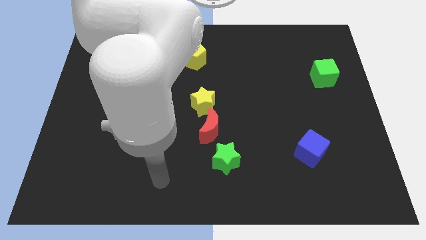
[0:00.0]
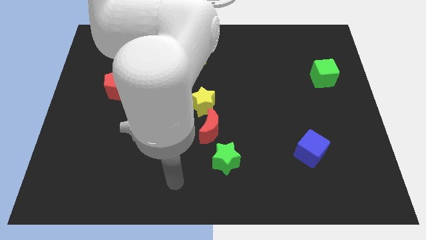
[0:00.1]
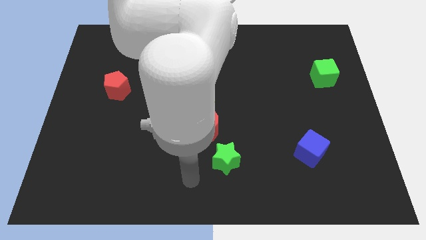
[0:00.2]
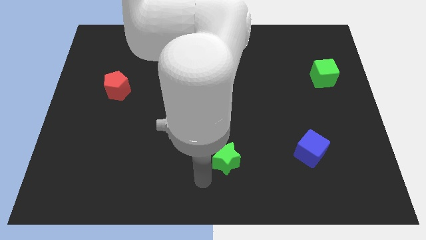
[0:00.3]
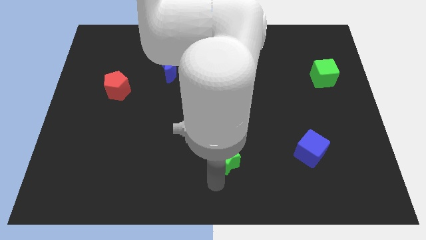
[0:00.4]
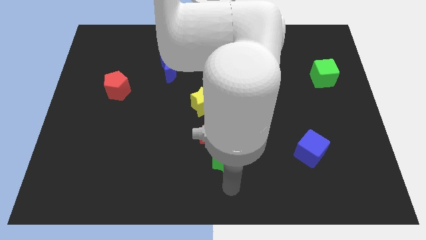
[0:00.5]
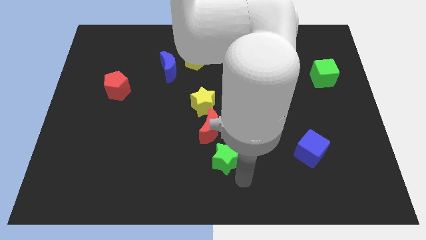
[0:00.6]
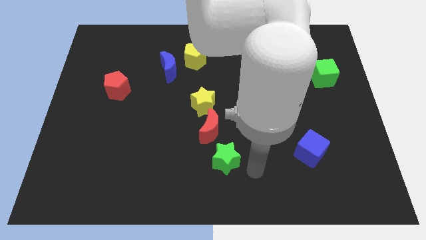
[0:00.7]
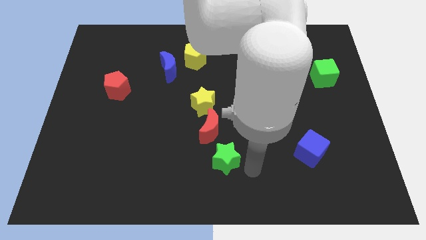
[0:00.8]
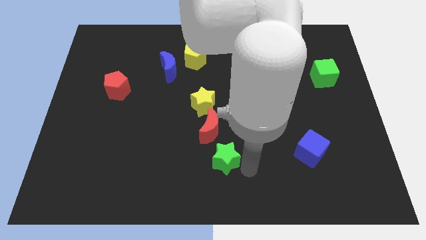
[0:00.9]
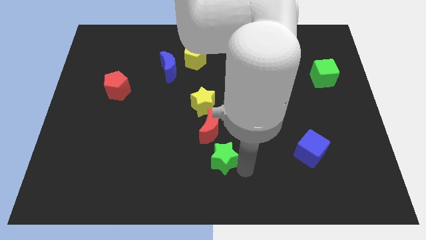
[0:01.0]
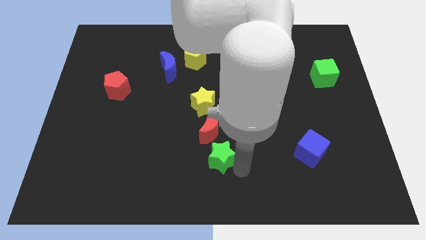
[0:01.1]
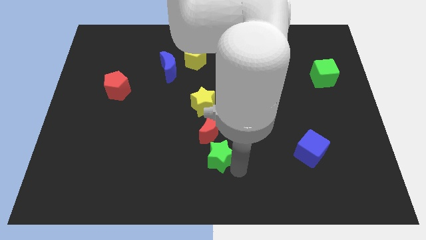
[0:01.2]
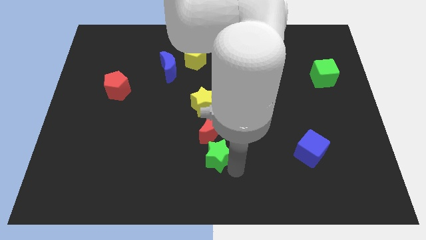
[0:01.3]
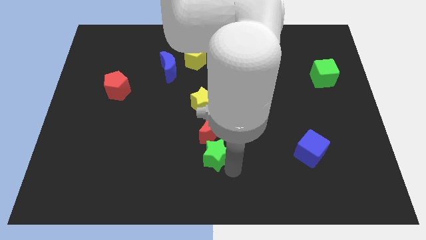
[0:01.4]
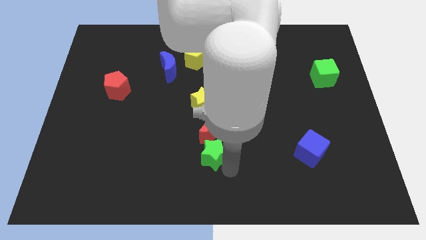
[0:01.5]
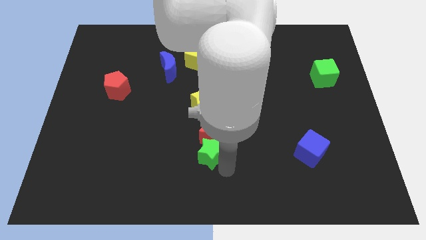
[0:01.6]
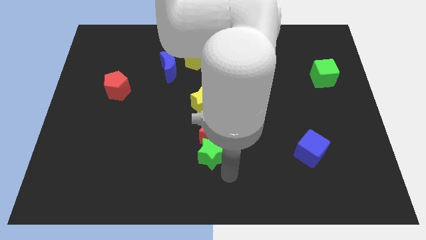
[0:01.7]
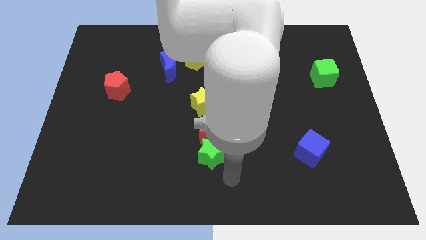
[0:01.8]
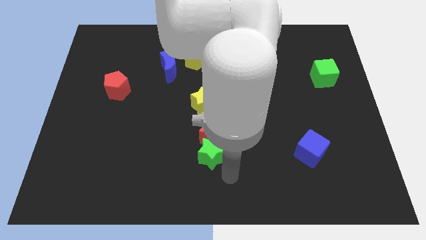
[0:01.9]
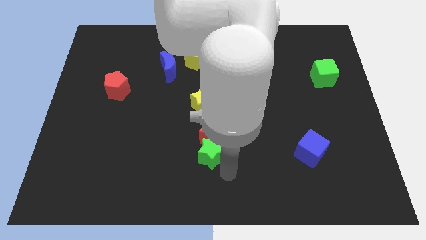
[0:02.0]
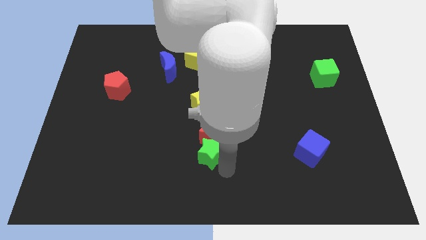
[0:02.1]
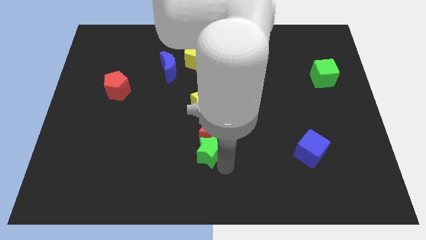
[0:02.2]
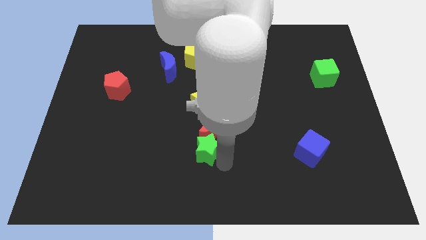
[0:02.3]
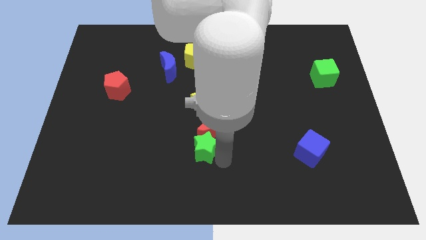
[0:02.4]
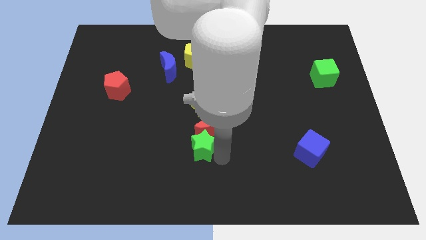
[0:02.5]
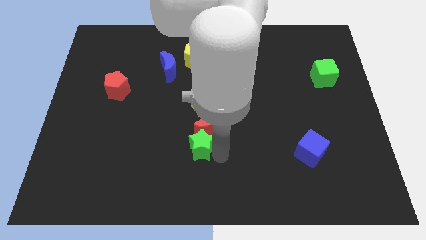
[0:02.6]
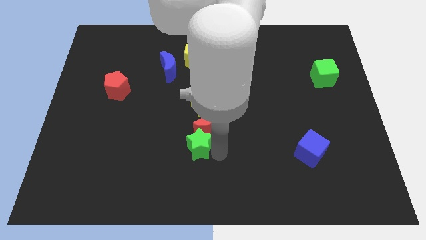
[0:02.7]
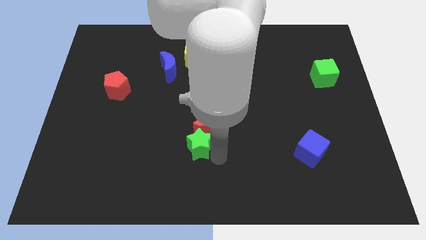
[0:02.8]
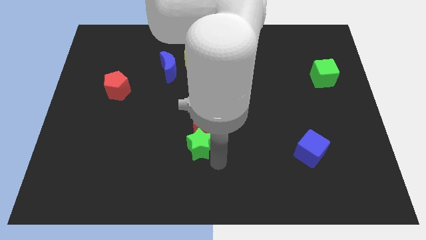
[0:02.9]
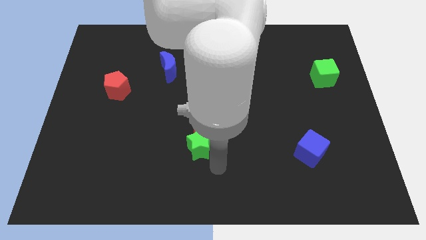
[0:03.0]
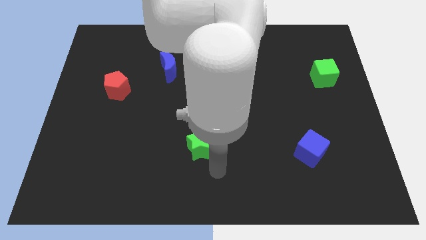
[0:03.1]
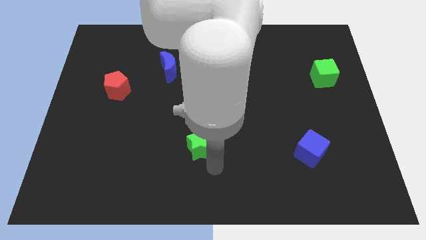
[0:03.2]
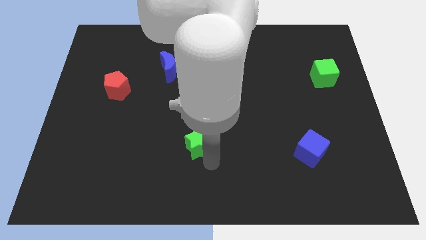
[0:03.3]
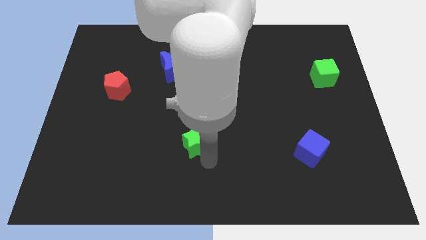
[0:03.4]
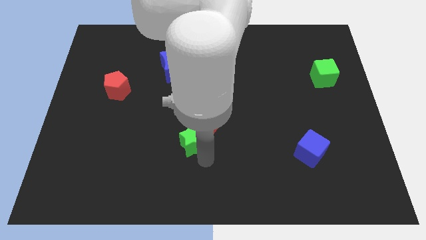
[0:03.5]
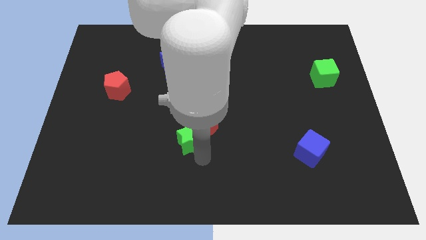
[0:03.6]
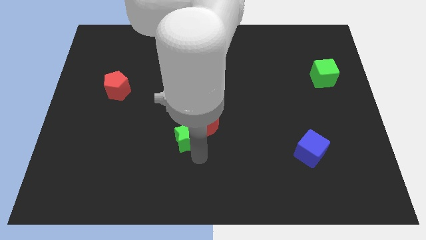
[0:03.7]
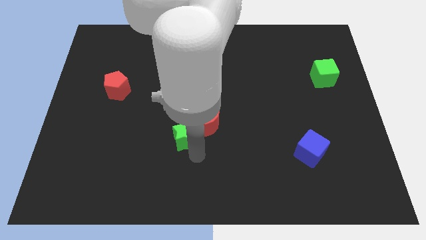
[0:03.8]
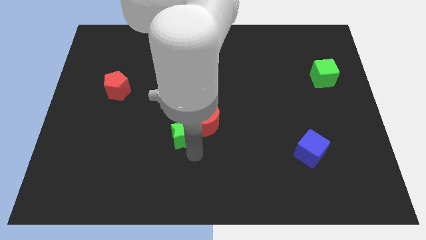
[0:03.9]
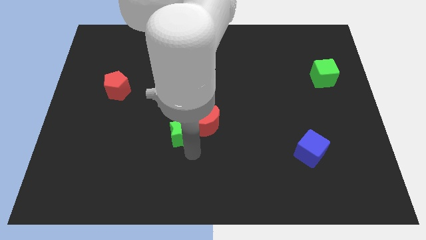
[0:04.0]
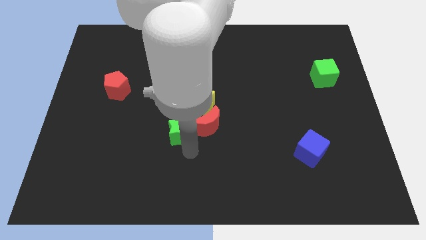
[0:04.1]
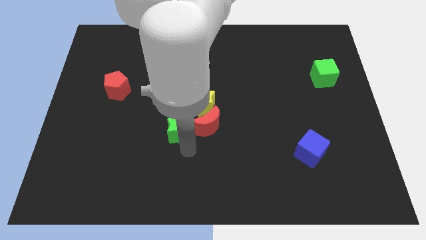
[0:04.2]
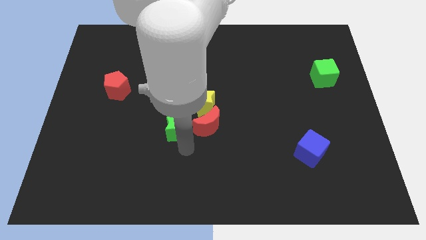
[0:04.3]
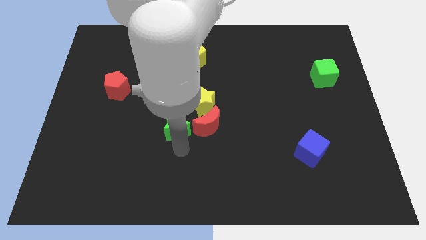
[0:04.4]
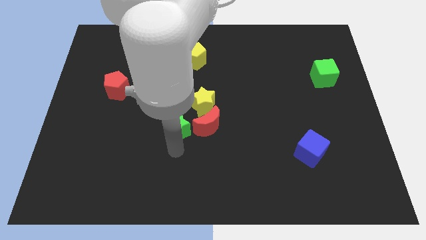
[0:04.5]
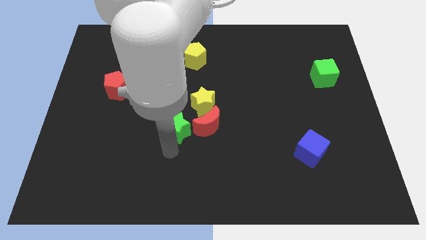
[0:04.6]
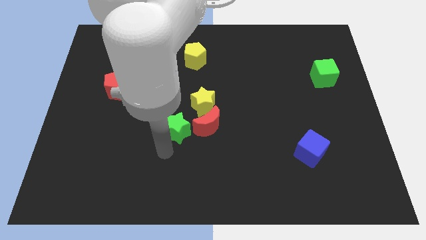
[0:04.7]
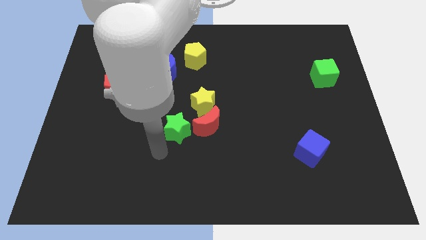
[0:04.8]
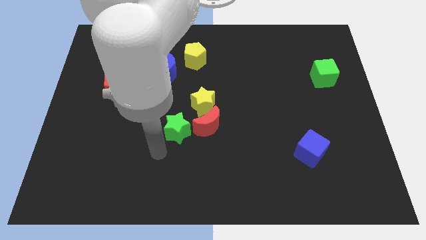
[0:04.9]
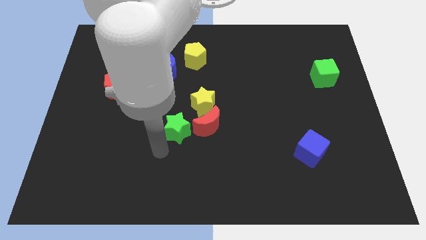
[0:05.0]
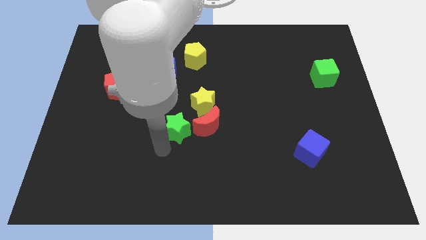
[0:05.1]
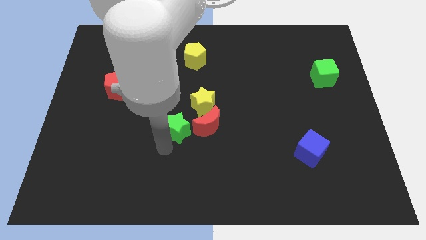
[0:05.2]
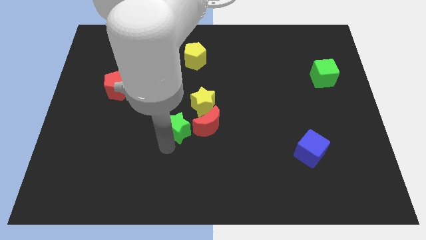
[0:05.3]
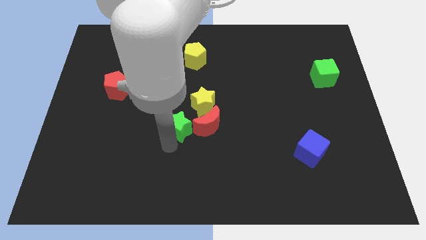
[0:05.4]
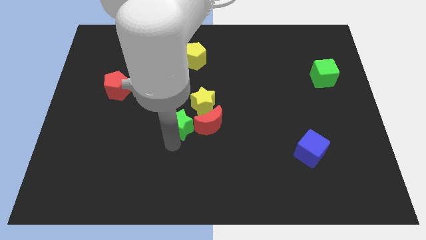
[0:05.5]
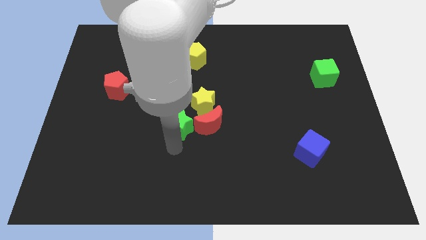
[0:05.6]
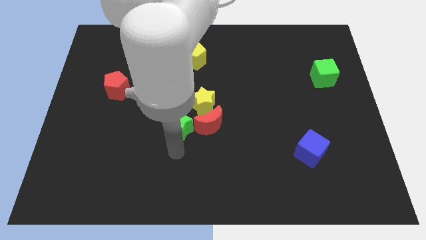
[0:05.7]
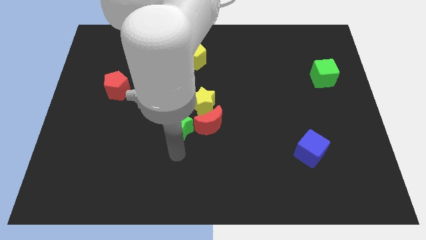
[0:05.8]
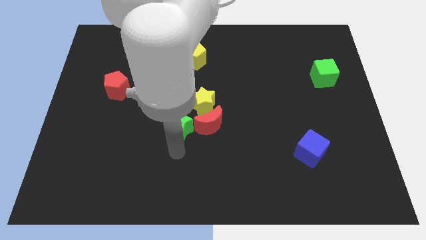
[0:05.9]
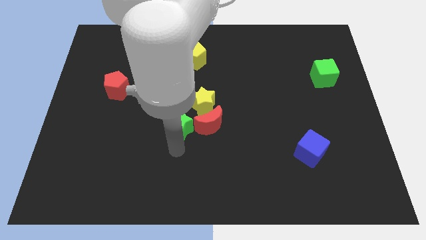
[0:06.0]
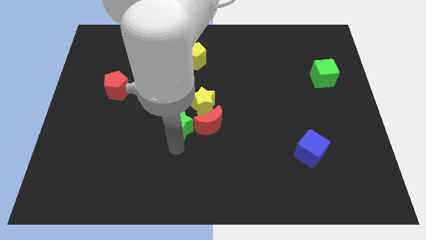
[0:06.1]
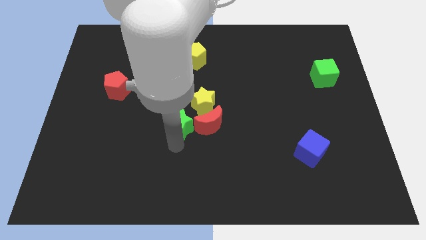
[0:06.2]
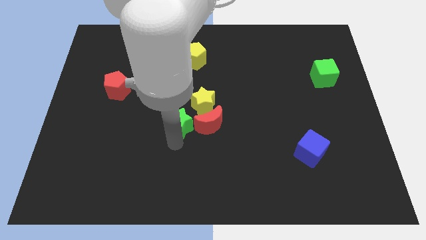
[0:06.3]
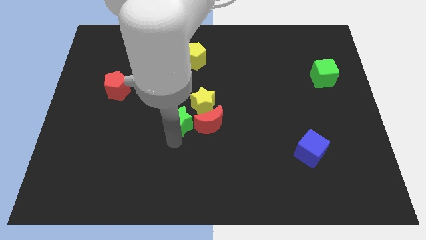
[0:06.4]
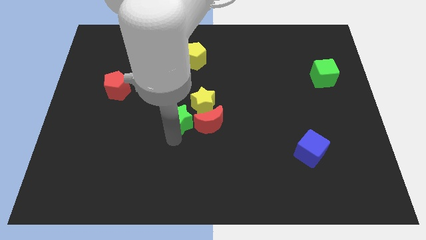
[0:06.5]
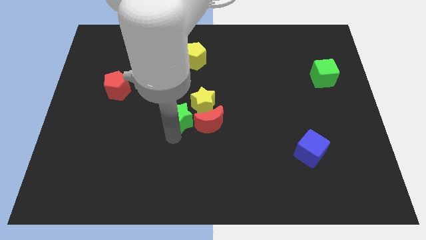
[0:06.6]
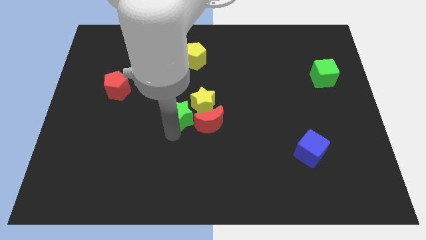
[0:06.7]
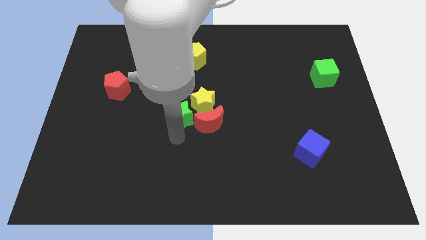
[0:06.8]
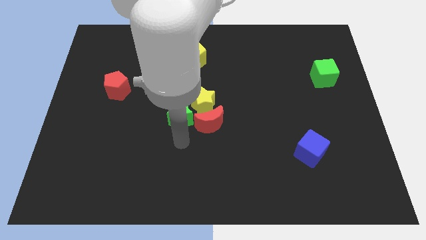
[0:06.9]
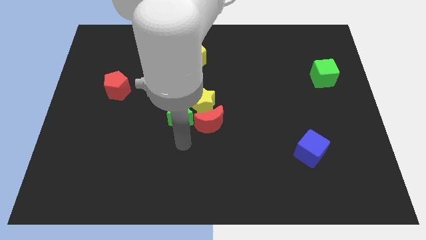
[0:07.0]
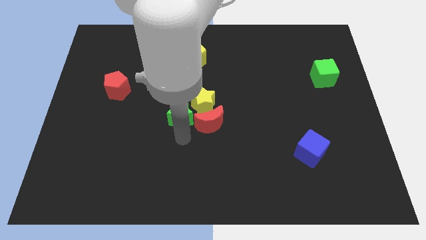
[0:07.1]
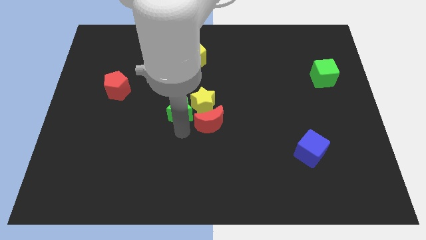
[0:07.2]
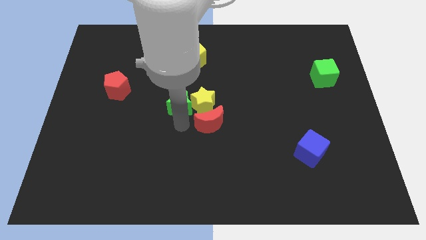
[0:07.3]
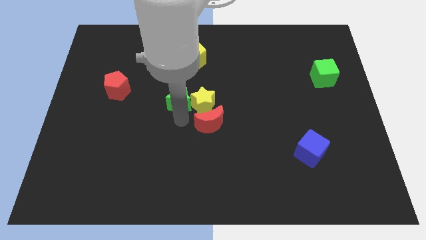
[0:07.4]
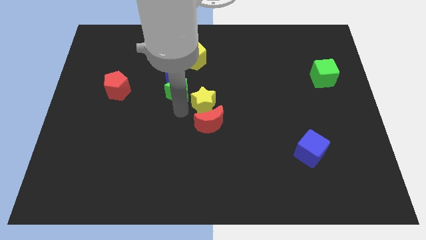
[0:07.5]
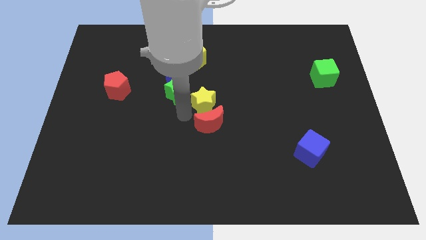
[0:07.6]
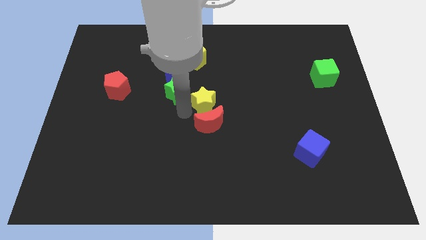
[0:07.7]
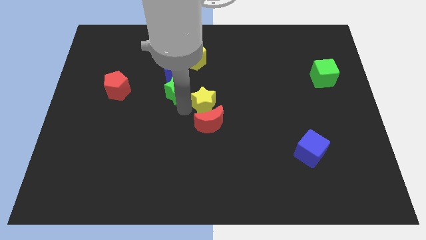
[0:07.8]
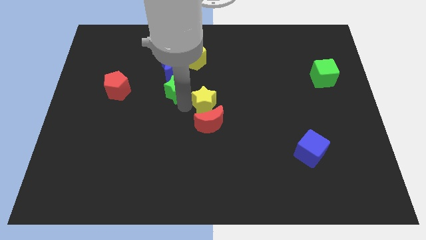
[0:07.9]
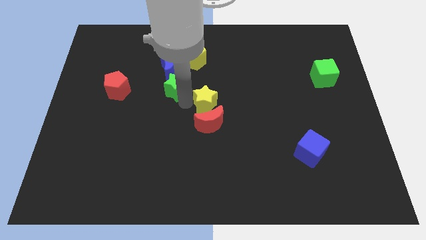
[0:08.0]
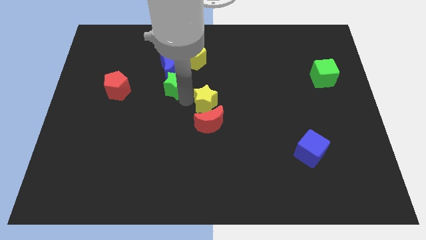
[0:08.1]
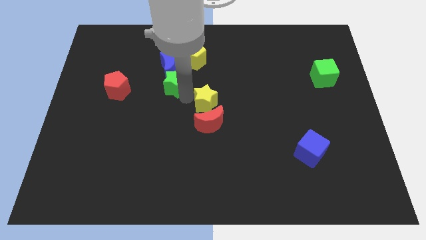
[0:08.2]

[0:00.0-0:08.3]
put the green star next to the blue moon
